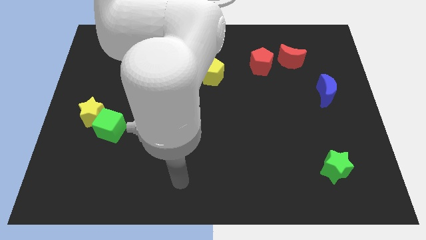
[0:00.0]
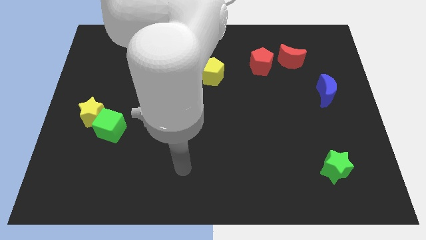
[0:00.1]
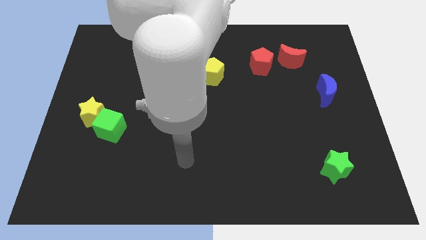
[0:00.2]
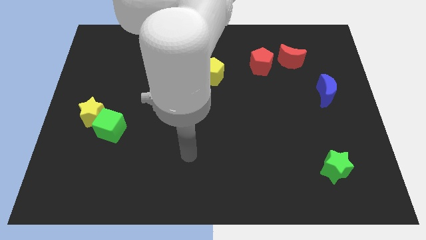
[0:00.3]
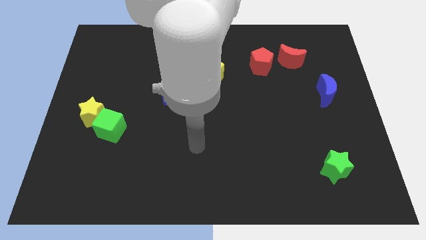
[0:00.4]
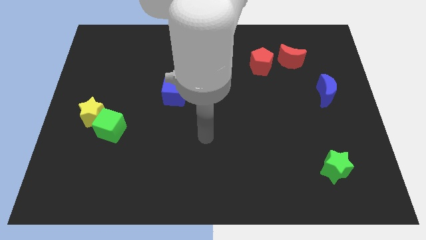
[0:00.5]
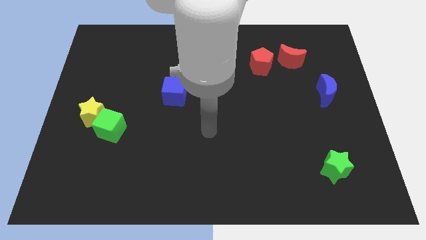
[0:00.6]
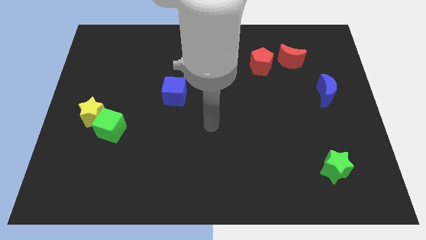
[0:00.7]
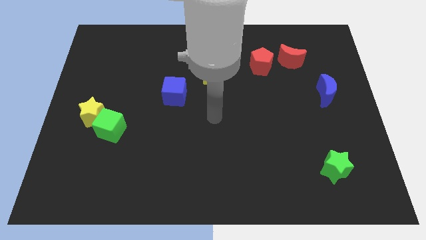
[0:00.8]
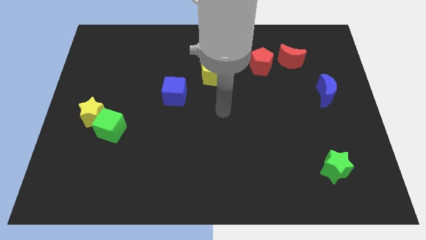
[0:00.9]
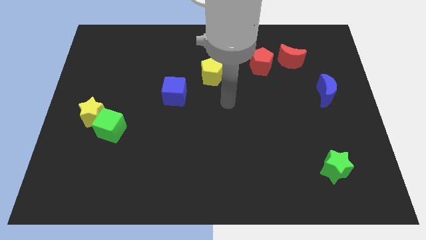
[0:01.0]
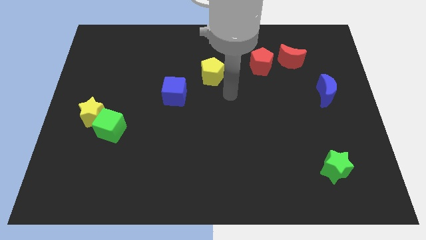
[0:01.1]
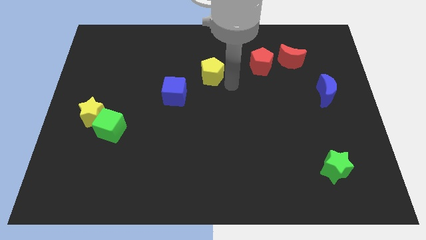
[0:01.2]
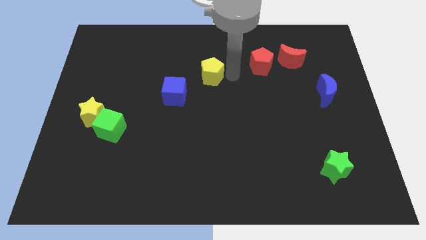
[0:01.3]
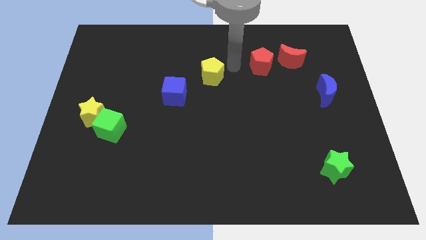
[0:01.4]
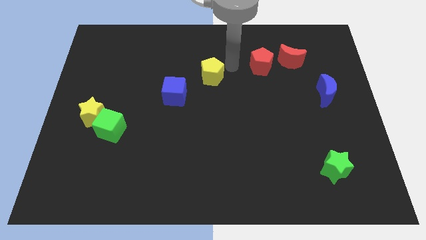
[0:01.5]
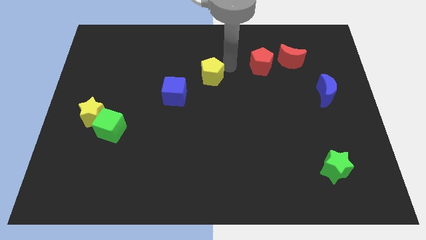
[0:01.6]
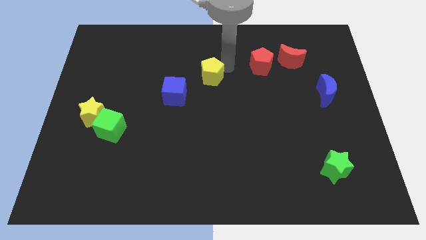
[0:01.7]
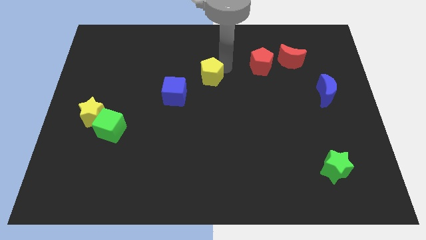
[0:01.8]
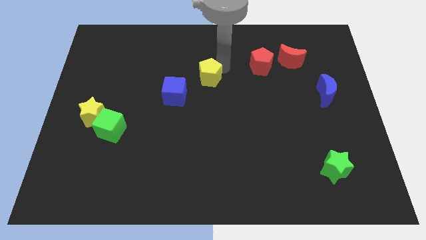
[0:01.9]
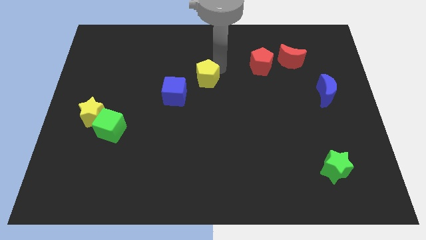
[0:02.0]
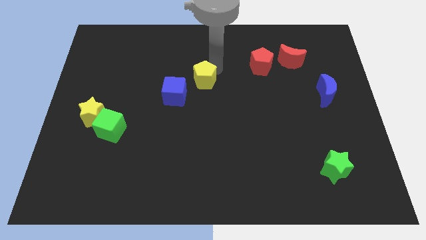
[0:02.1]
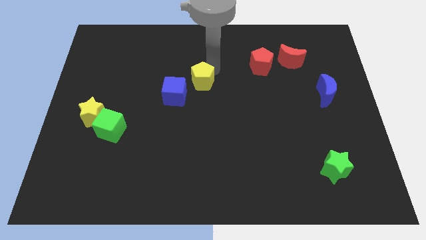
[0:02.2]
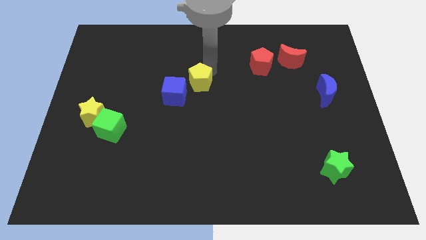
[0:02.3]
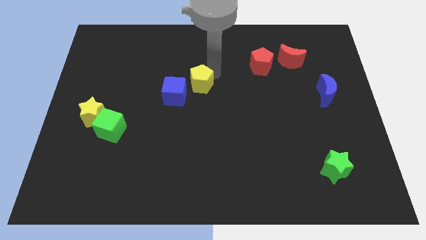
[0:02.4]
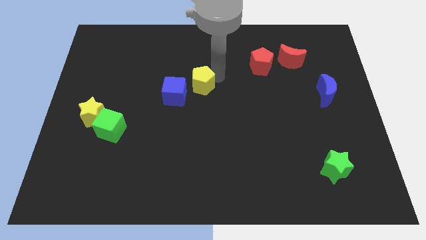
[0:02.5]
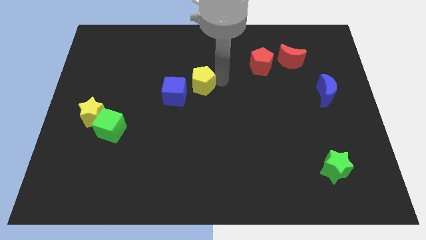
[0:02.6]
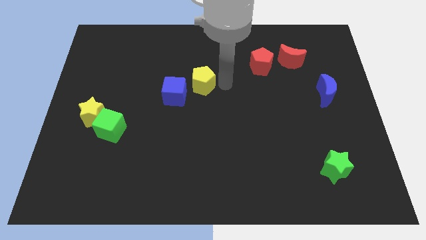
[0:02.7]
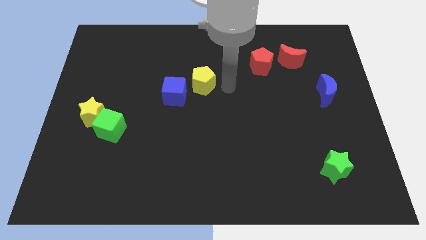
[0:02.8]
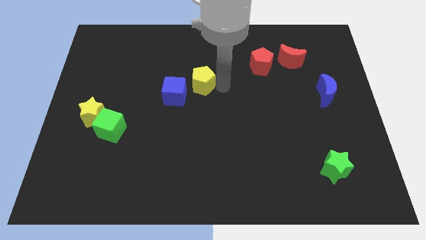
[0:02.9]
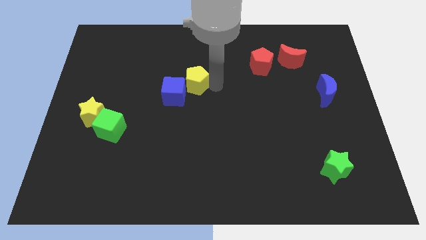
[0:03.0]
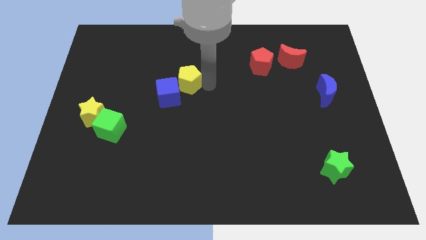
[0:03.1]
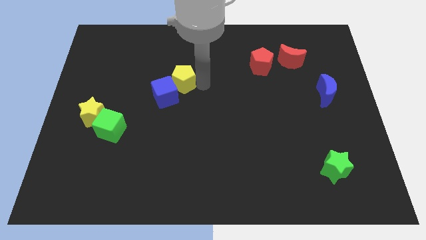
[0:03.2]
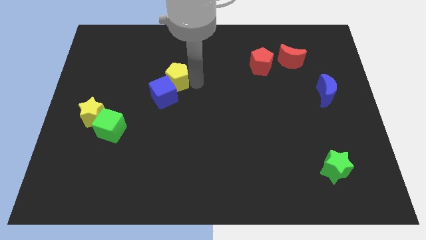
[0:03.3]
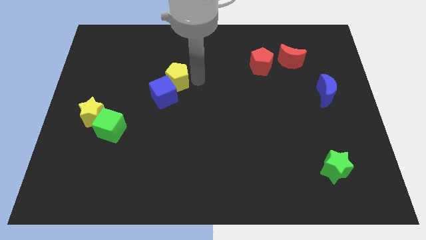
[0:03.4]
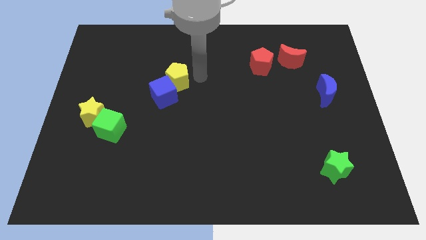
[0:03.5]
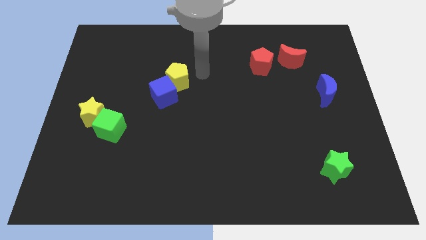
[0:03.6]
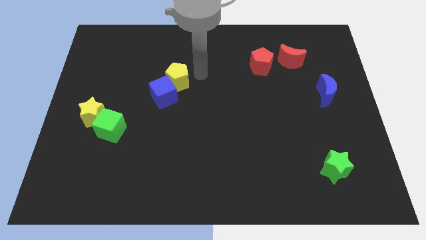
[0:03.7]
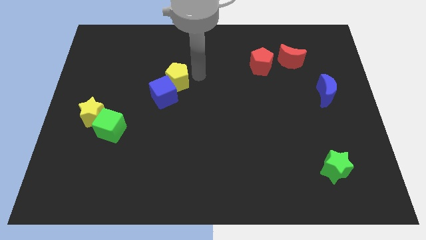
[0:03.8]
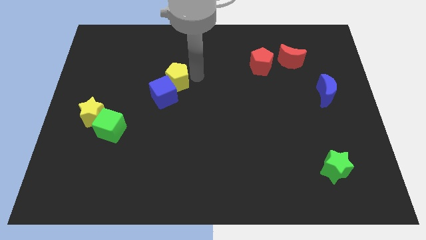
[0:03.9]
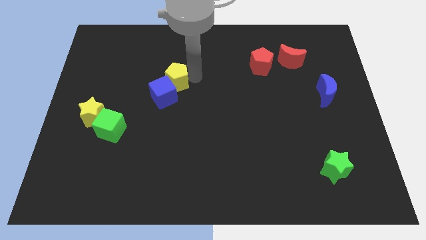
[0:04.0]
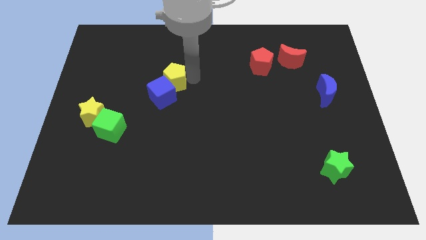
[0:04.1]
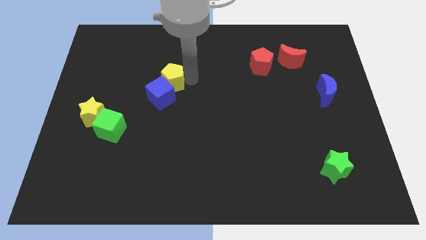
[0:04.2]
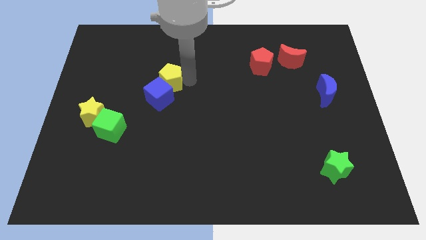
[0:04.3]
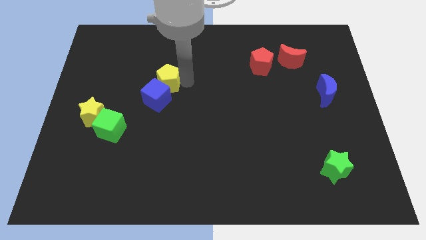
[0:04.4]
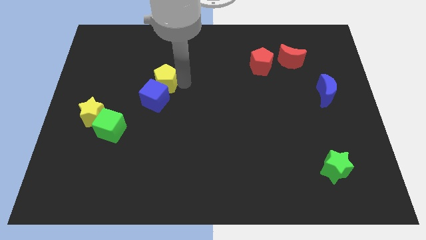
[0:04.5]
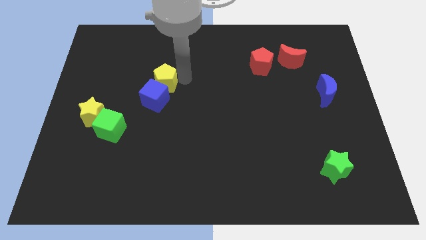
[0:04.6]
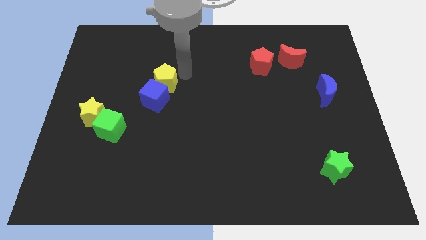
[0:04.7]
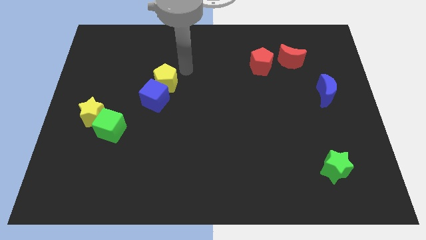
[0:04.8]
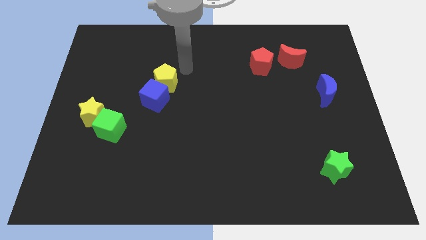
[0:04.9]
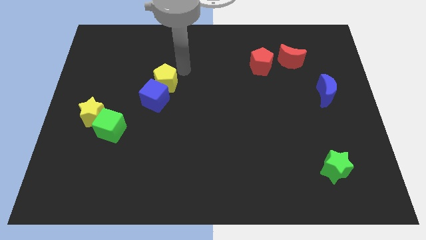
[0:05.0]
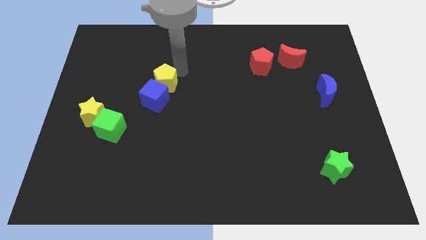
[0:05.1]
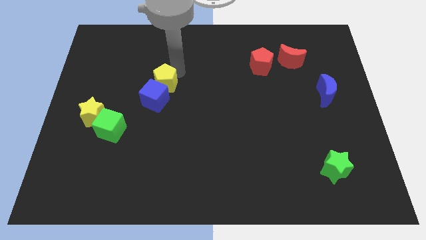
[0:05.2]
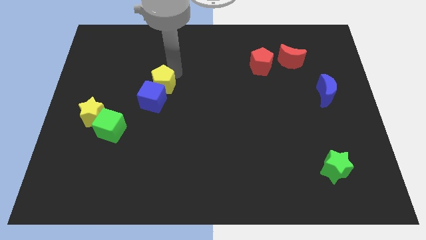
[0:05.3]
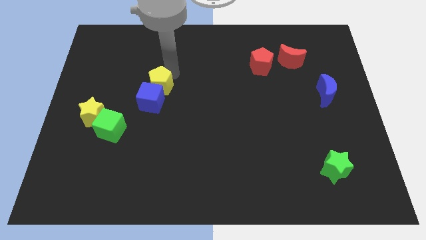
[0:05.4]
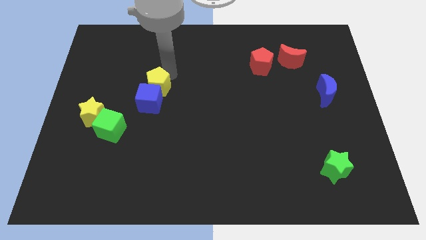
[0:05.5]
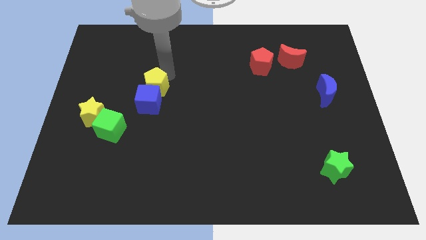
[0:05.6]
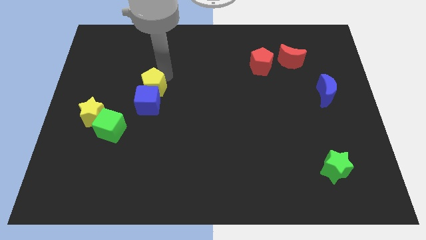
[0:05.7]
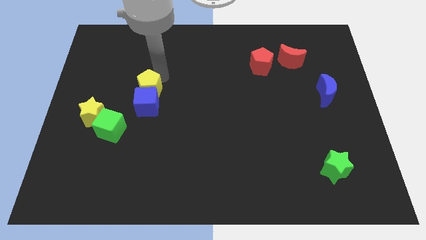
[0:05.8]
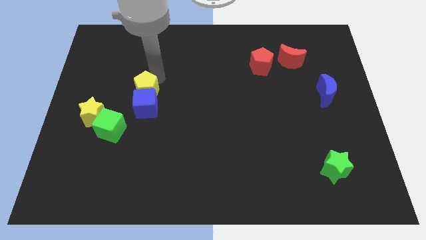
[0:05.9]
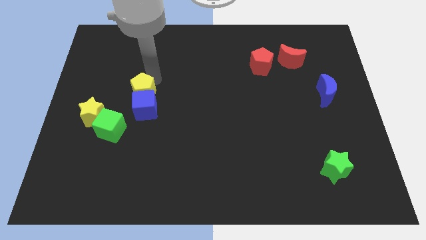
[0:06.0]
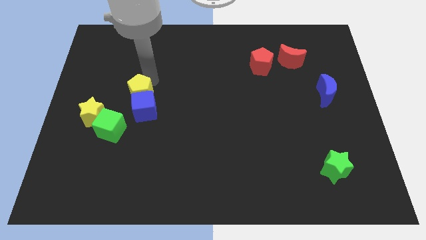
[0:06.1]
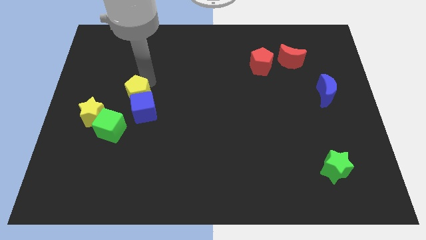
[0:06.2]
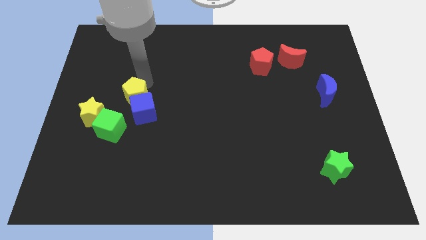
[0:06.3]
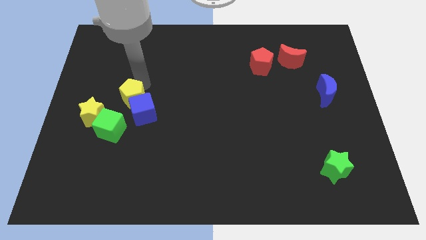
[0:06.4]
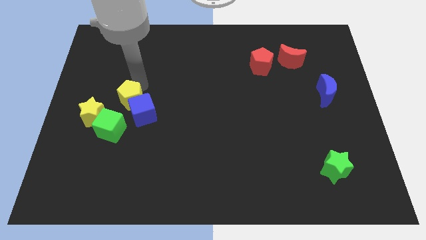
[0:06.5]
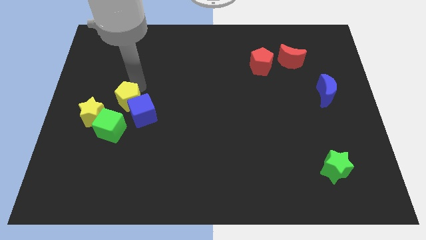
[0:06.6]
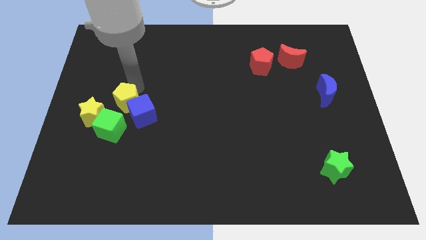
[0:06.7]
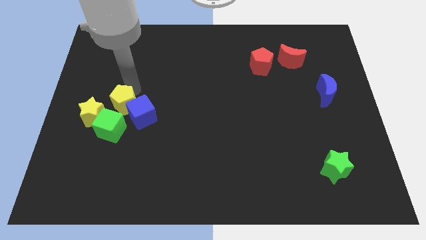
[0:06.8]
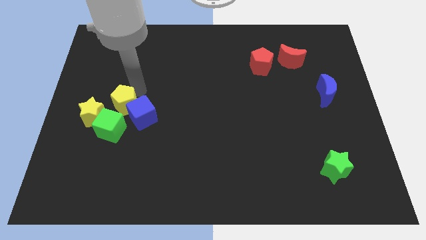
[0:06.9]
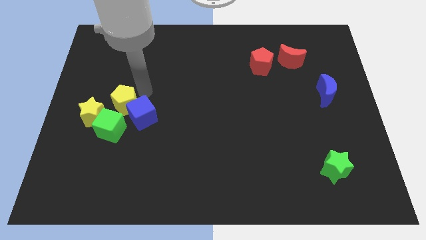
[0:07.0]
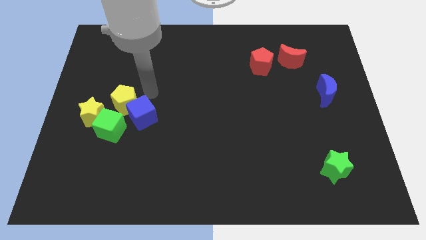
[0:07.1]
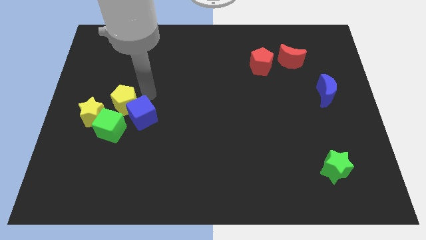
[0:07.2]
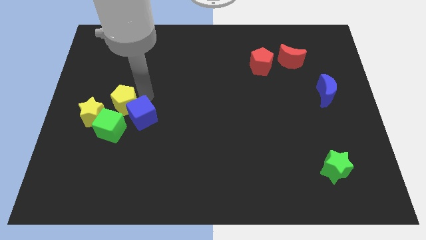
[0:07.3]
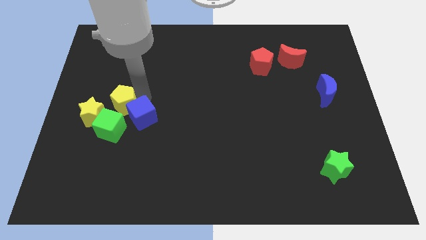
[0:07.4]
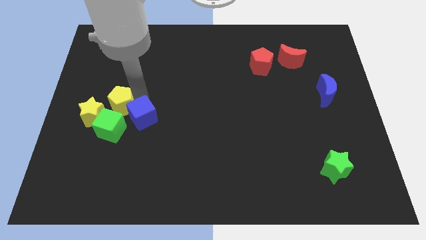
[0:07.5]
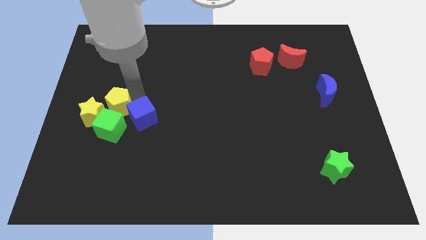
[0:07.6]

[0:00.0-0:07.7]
slide the yellow pentagon towards the yellow star
